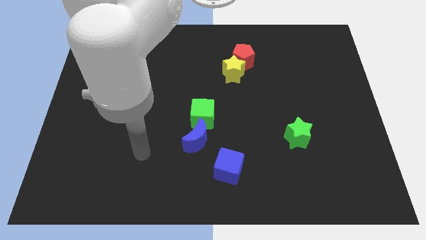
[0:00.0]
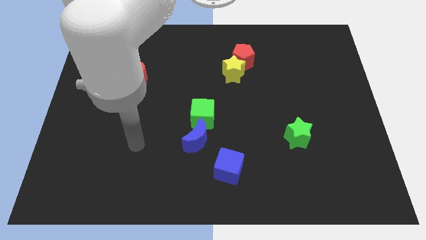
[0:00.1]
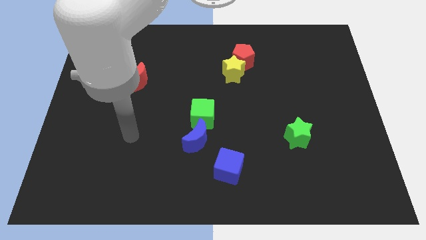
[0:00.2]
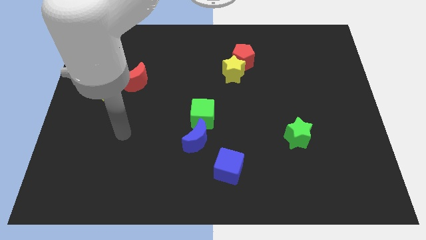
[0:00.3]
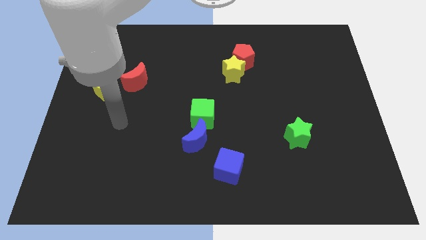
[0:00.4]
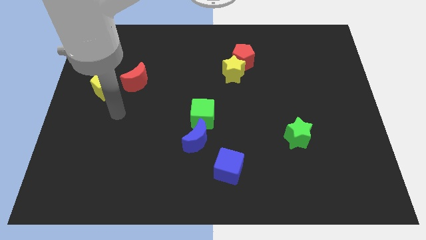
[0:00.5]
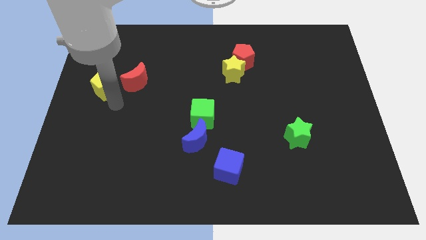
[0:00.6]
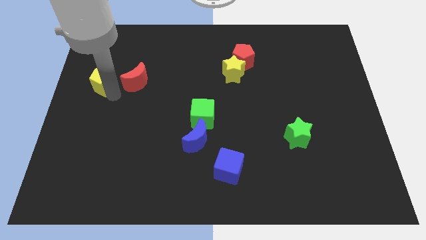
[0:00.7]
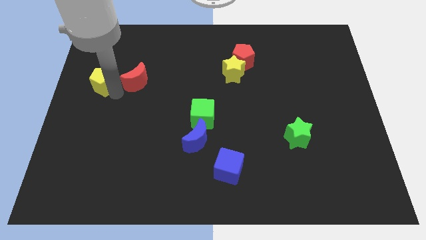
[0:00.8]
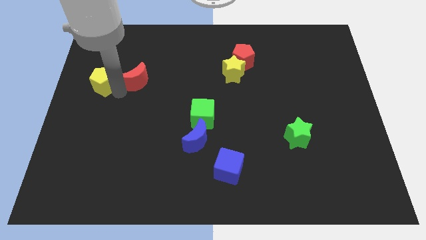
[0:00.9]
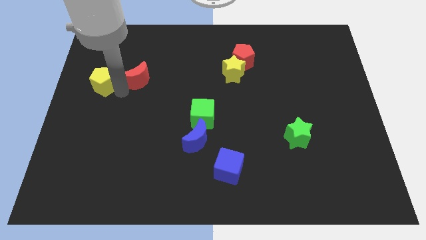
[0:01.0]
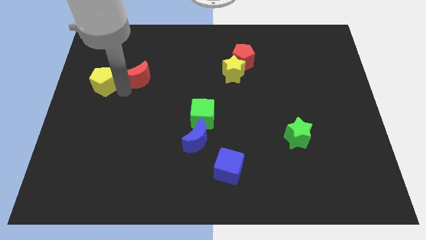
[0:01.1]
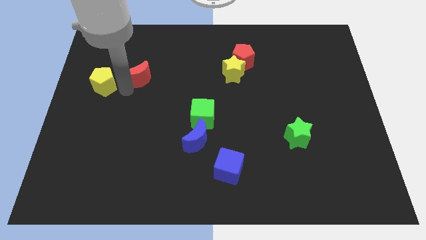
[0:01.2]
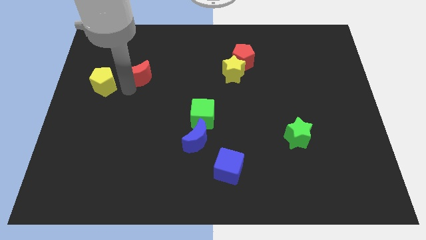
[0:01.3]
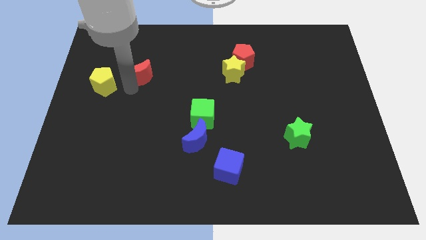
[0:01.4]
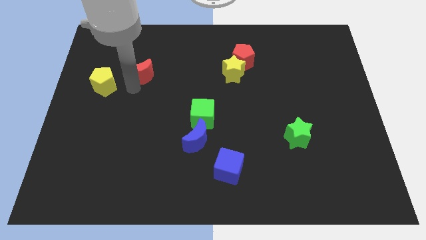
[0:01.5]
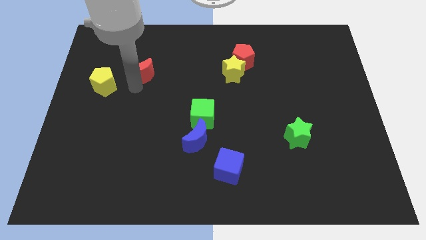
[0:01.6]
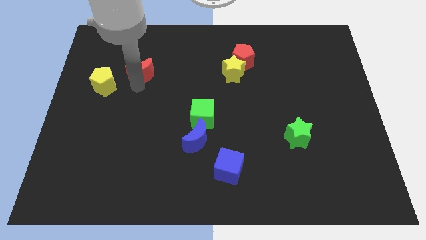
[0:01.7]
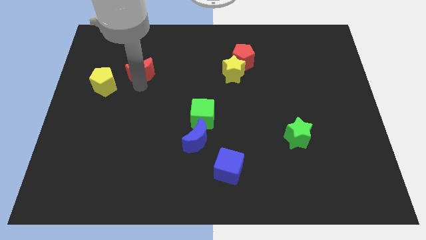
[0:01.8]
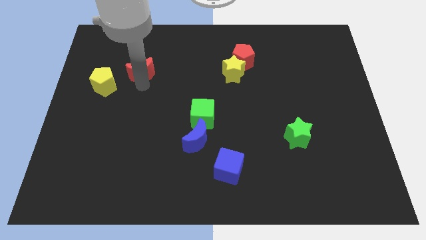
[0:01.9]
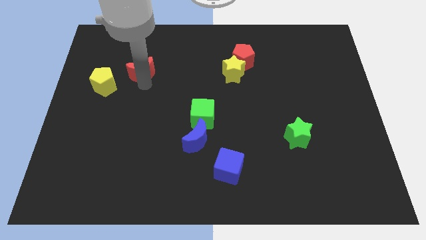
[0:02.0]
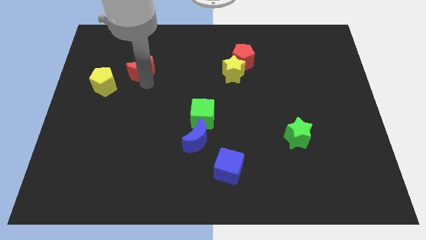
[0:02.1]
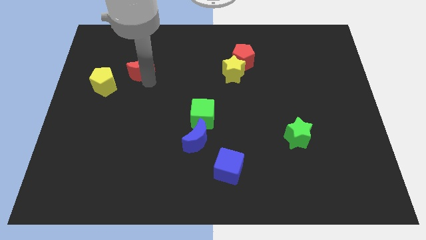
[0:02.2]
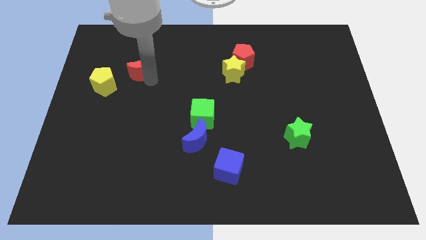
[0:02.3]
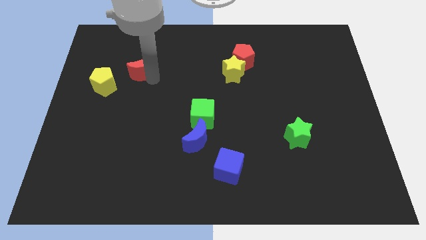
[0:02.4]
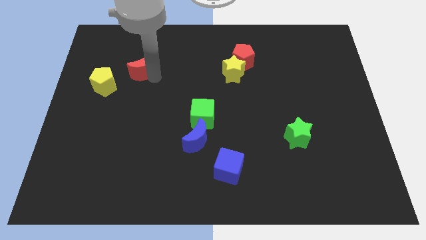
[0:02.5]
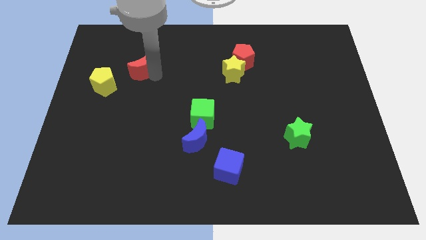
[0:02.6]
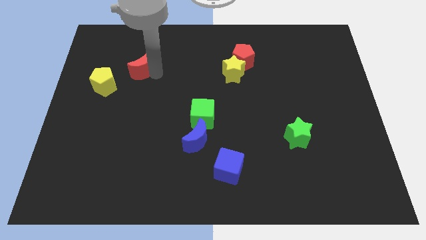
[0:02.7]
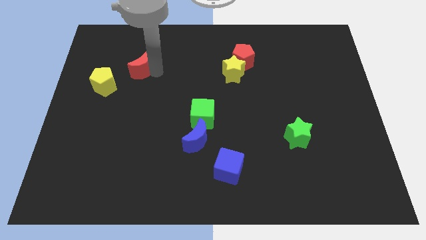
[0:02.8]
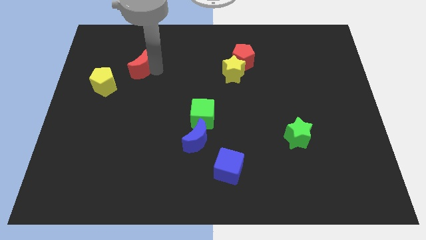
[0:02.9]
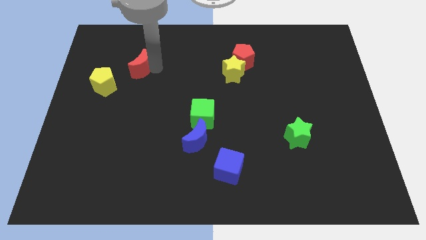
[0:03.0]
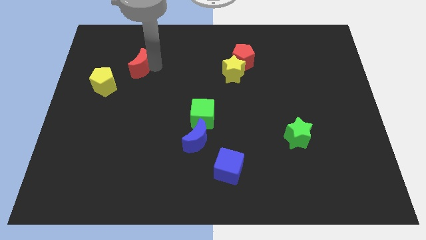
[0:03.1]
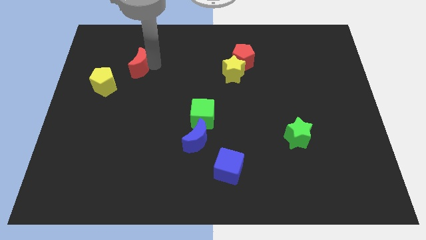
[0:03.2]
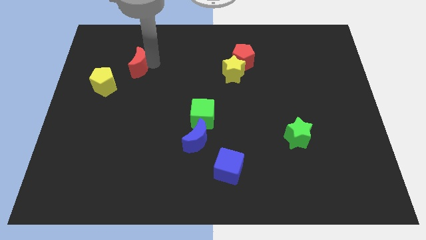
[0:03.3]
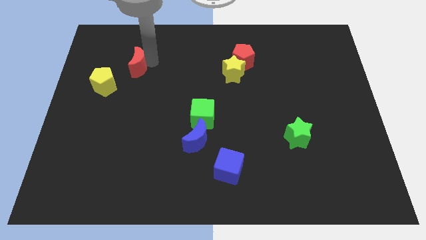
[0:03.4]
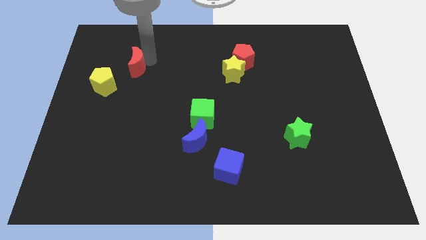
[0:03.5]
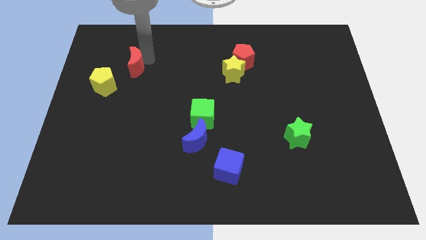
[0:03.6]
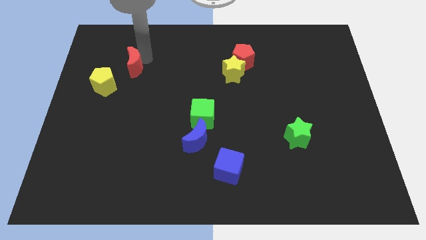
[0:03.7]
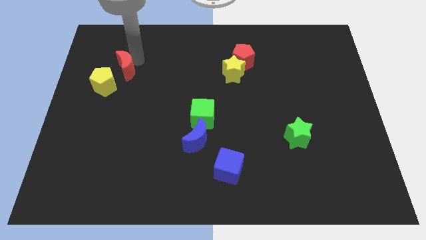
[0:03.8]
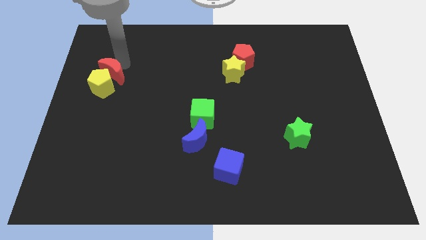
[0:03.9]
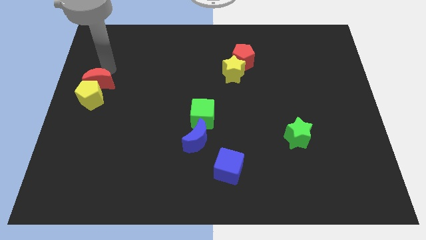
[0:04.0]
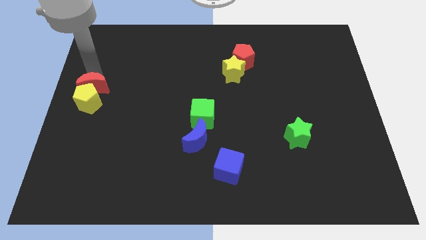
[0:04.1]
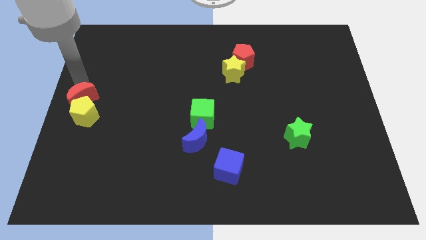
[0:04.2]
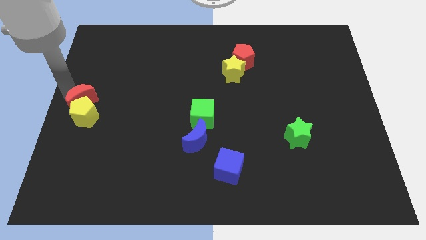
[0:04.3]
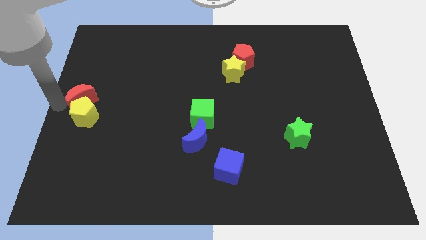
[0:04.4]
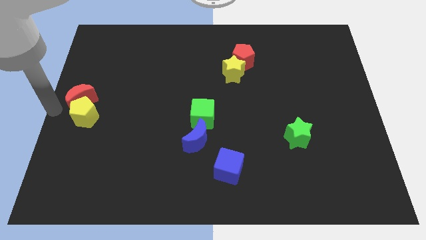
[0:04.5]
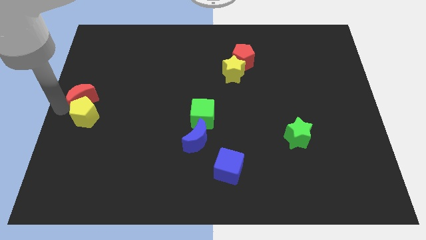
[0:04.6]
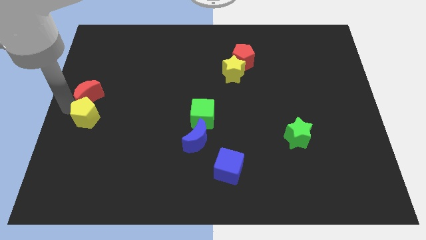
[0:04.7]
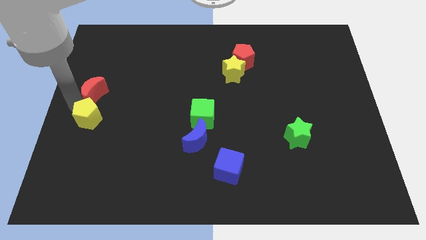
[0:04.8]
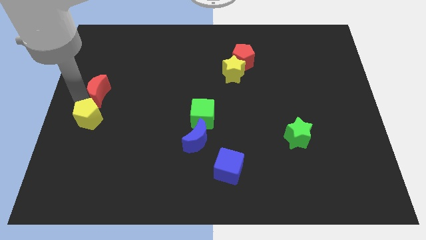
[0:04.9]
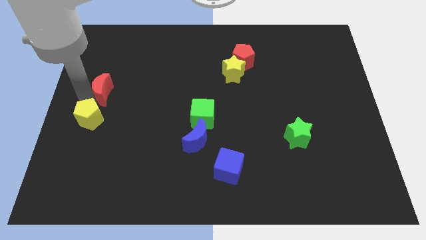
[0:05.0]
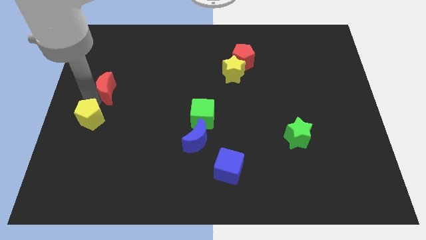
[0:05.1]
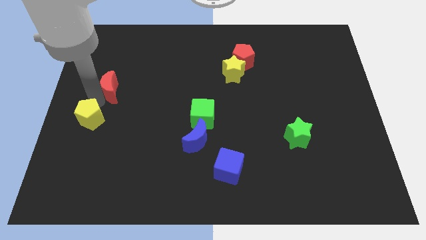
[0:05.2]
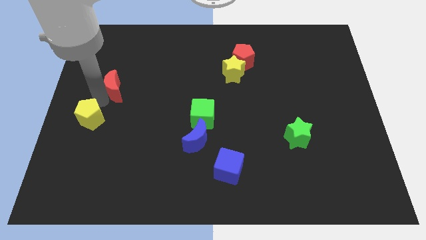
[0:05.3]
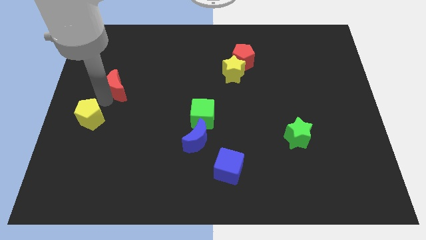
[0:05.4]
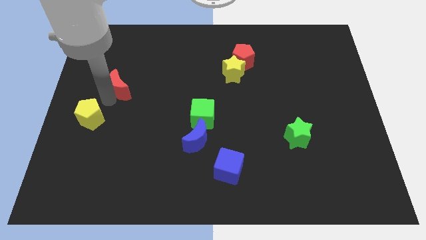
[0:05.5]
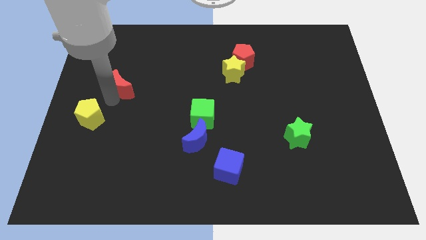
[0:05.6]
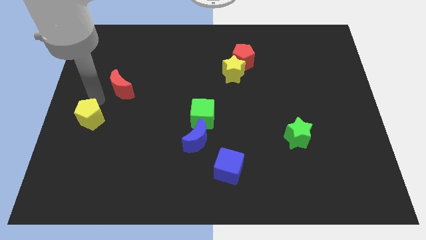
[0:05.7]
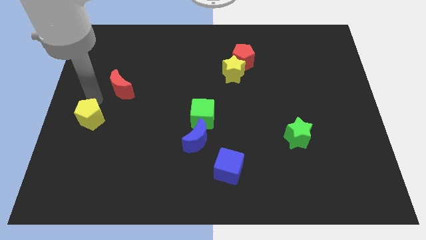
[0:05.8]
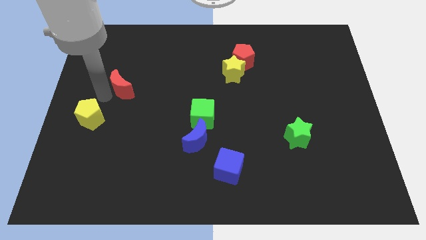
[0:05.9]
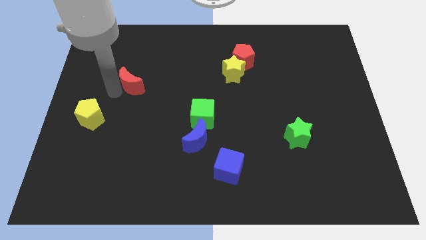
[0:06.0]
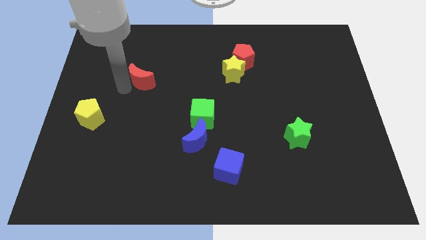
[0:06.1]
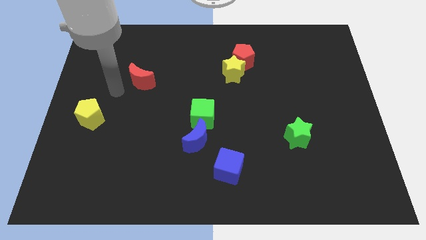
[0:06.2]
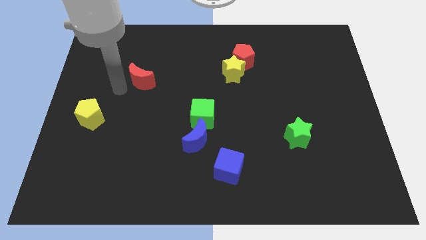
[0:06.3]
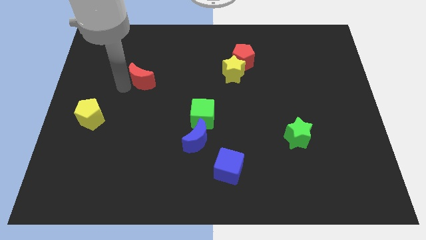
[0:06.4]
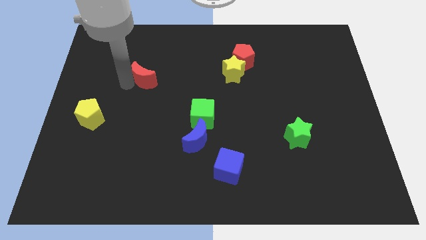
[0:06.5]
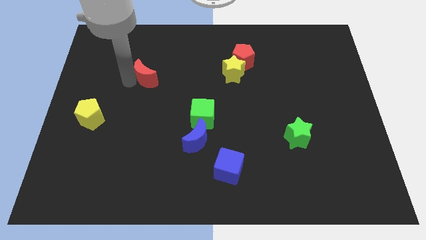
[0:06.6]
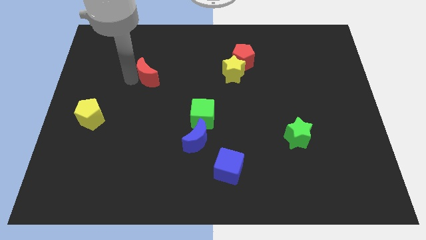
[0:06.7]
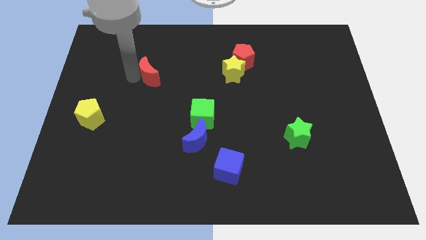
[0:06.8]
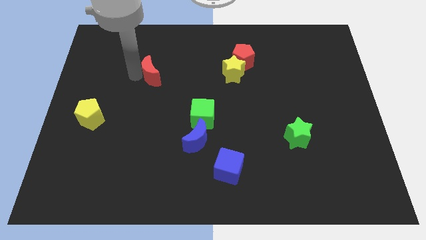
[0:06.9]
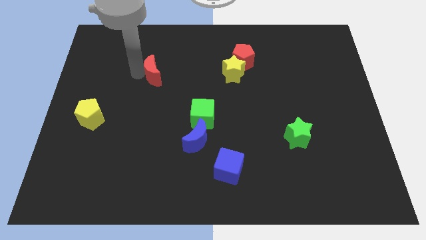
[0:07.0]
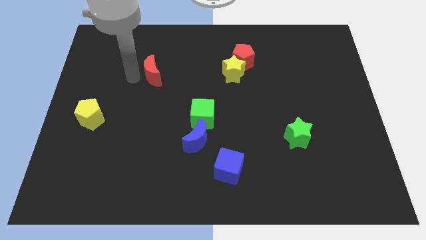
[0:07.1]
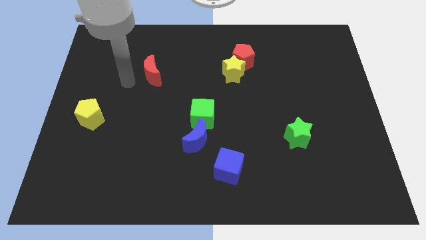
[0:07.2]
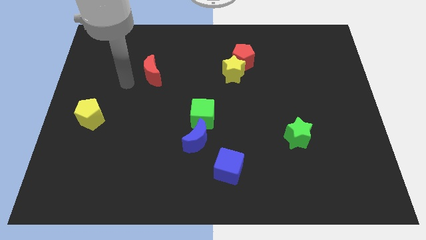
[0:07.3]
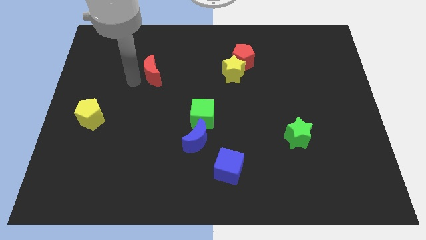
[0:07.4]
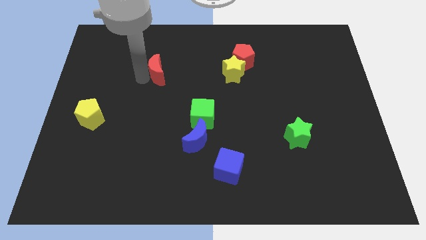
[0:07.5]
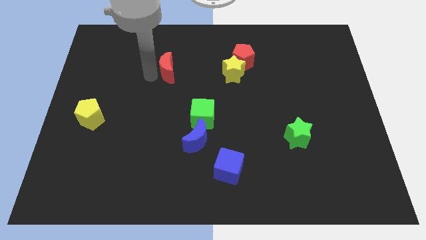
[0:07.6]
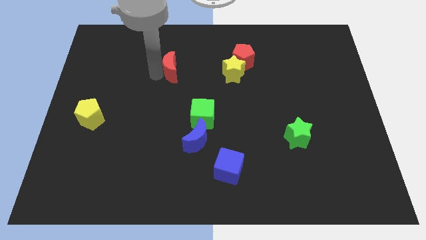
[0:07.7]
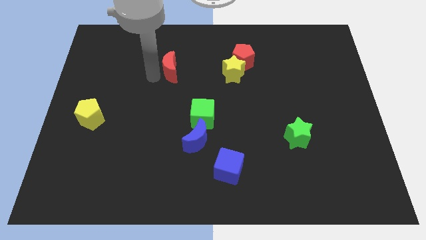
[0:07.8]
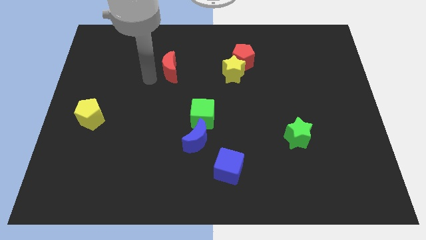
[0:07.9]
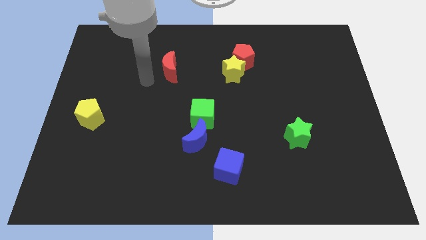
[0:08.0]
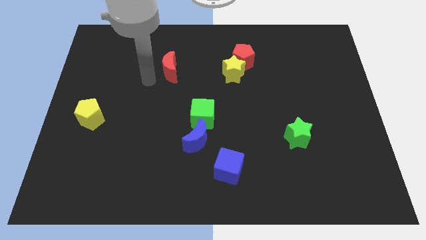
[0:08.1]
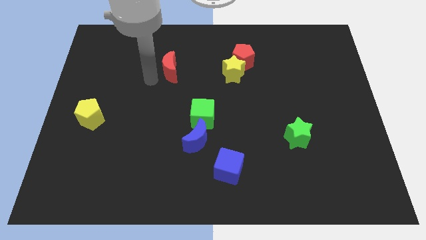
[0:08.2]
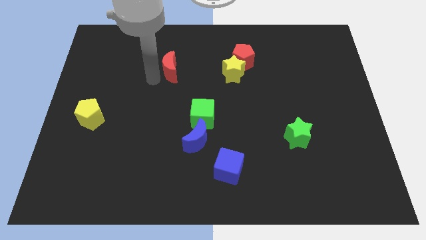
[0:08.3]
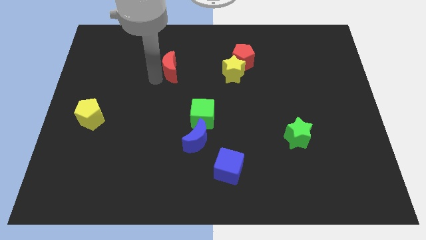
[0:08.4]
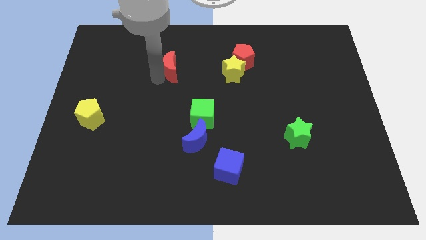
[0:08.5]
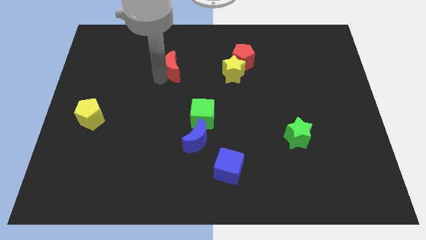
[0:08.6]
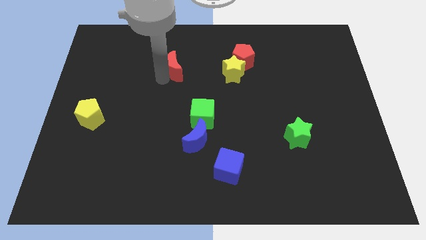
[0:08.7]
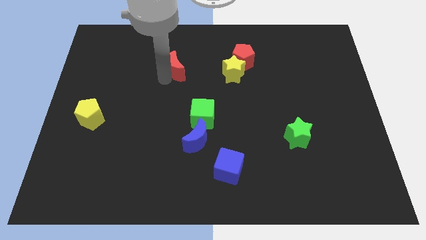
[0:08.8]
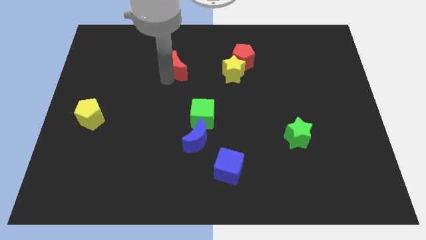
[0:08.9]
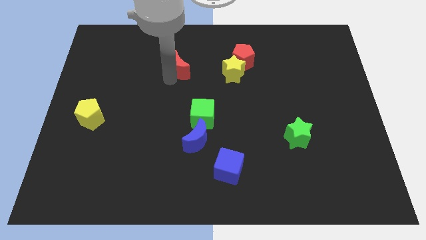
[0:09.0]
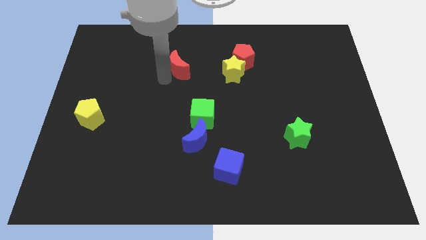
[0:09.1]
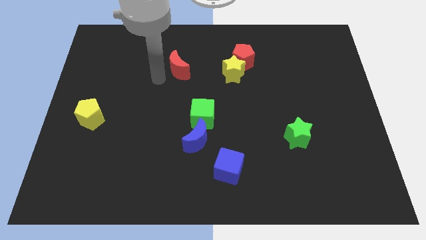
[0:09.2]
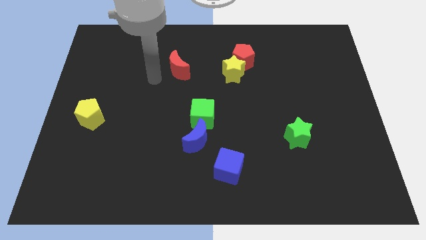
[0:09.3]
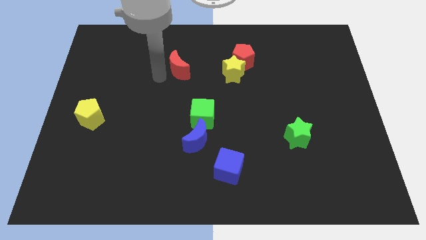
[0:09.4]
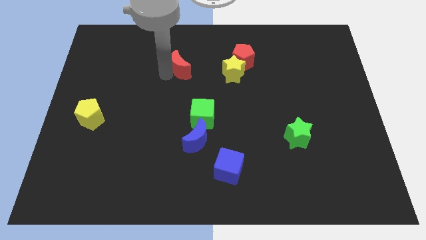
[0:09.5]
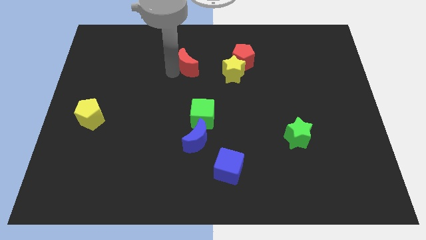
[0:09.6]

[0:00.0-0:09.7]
move the red moon left of the red pentagon
